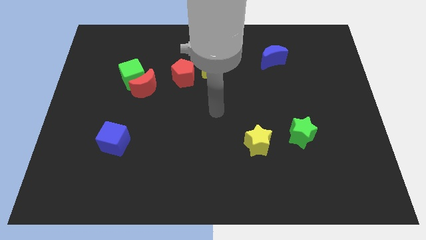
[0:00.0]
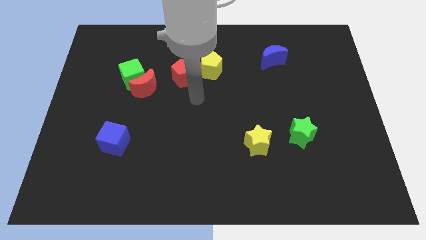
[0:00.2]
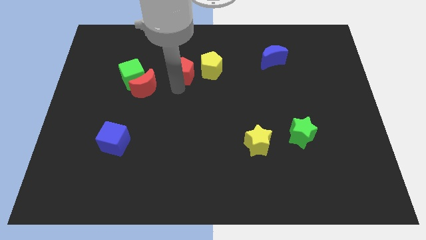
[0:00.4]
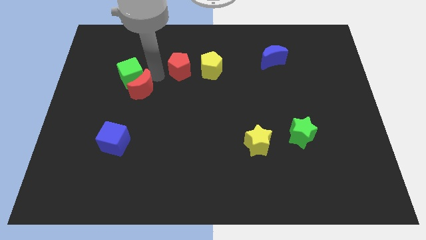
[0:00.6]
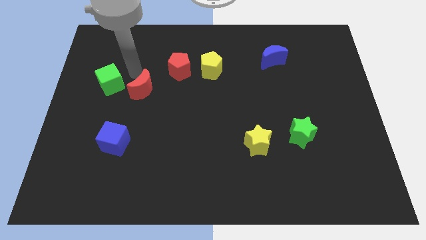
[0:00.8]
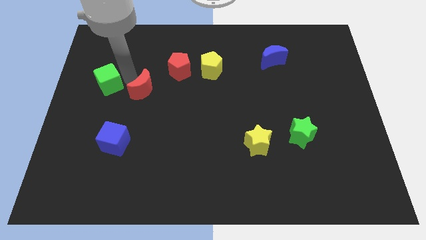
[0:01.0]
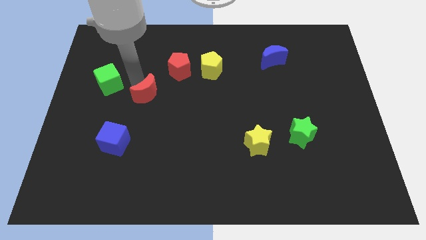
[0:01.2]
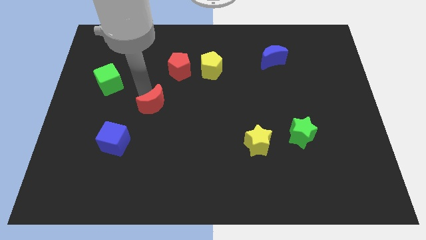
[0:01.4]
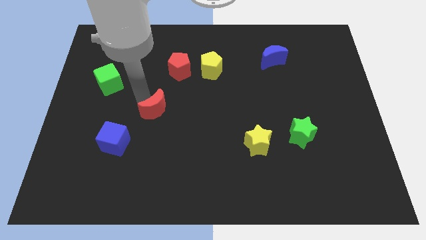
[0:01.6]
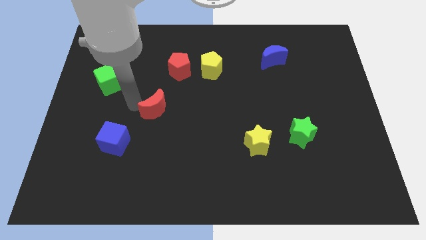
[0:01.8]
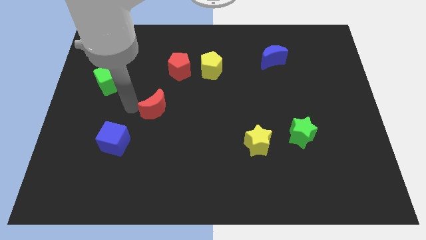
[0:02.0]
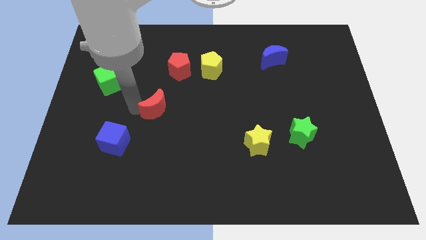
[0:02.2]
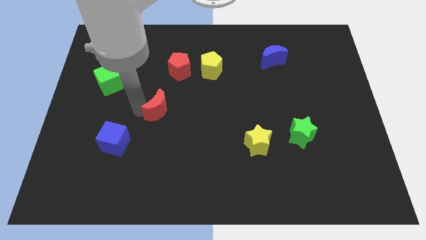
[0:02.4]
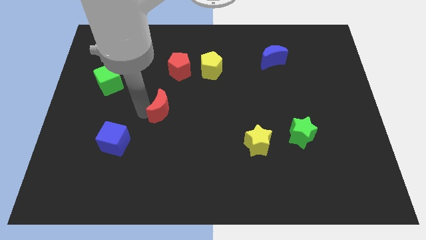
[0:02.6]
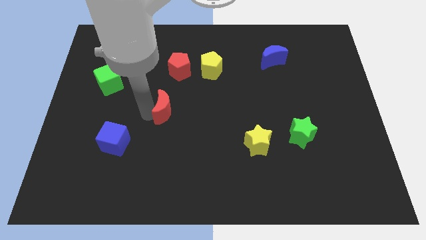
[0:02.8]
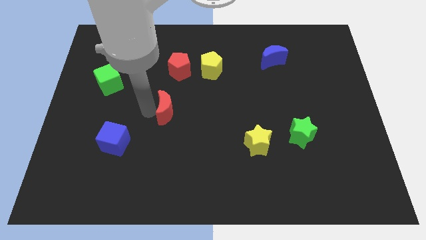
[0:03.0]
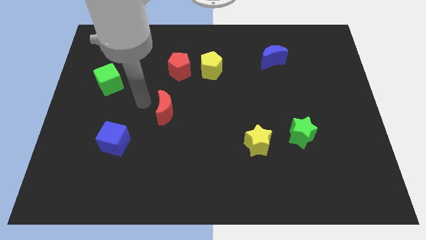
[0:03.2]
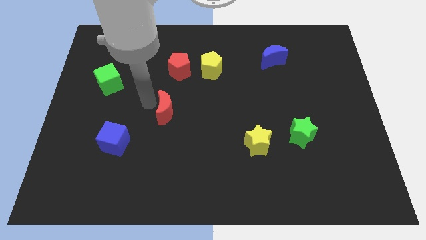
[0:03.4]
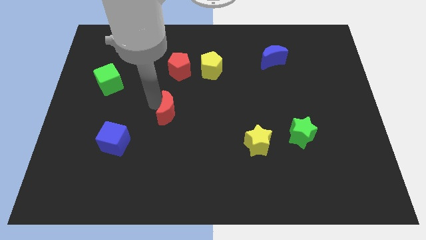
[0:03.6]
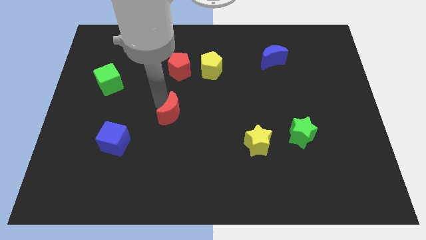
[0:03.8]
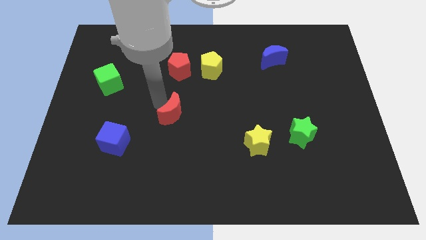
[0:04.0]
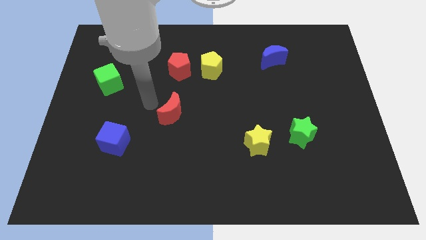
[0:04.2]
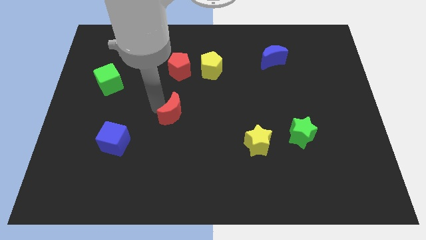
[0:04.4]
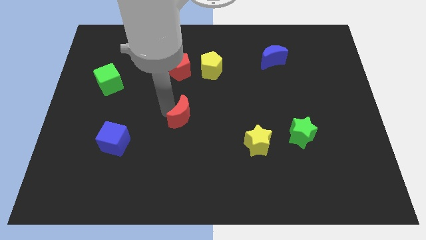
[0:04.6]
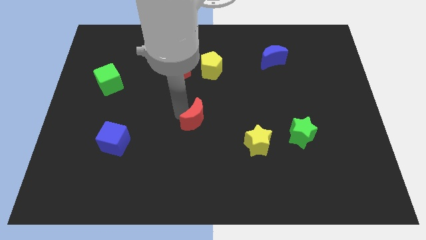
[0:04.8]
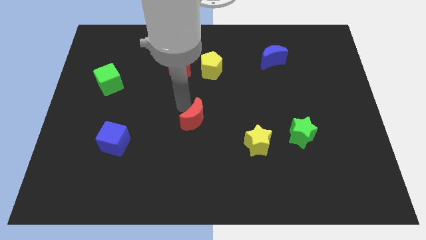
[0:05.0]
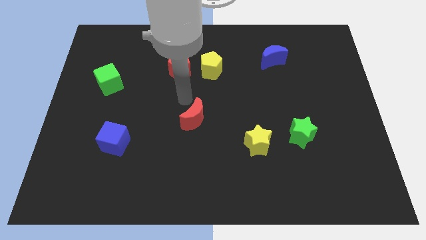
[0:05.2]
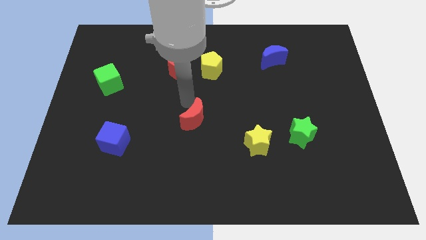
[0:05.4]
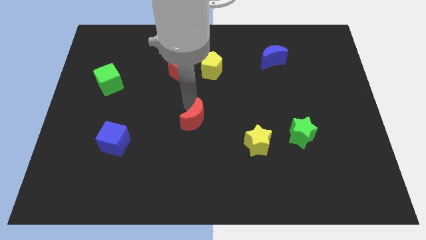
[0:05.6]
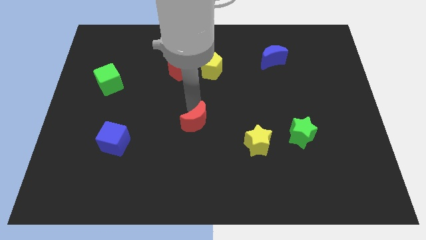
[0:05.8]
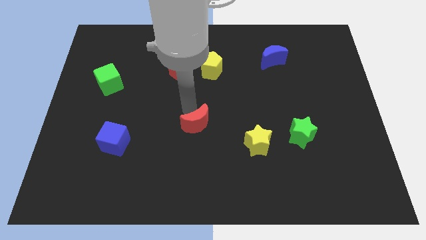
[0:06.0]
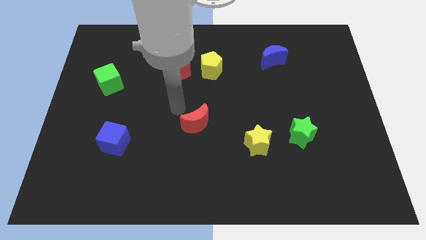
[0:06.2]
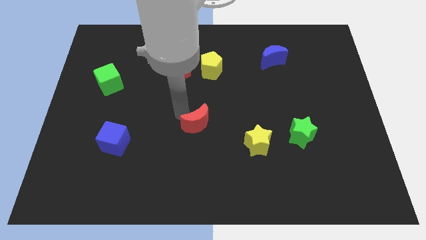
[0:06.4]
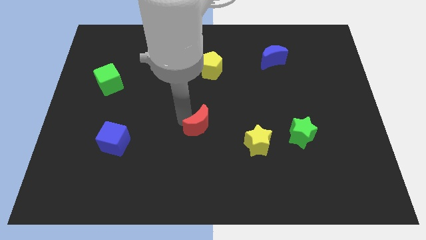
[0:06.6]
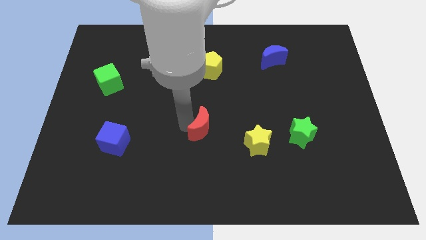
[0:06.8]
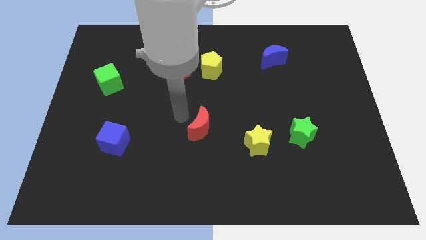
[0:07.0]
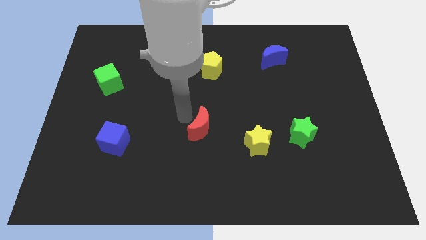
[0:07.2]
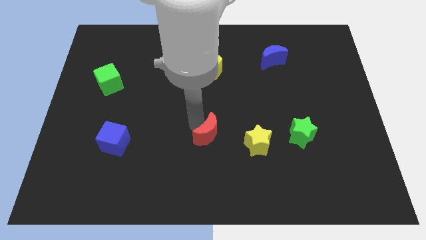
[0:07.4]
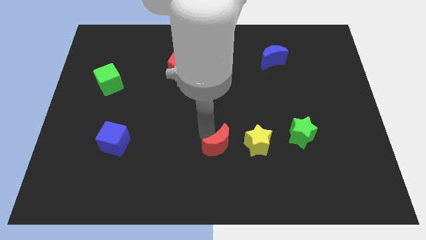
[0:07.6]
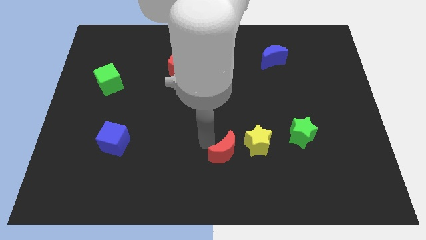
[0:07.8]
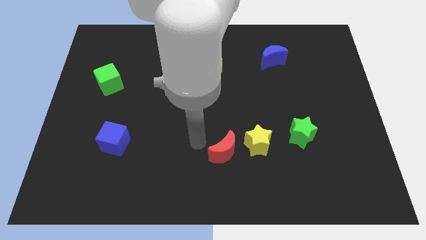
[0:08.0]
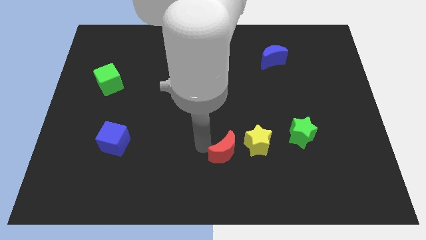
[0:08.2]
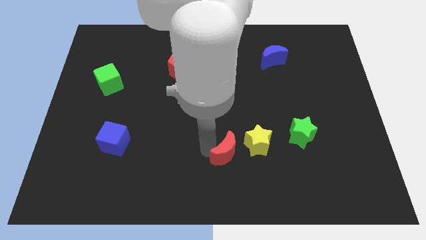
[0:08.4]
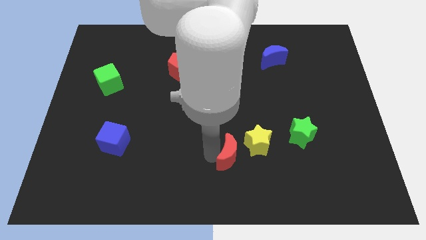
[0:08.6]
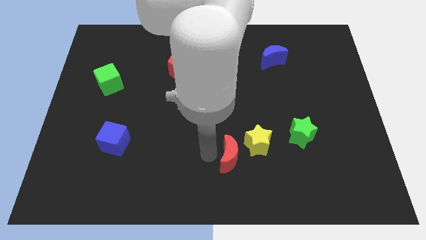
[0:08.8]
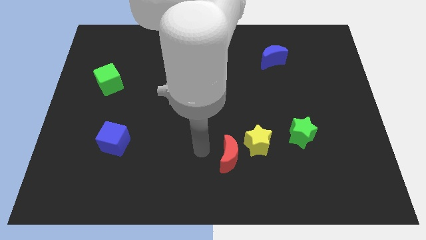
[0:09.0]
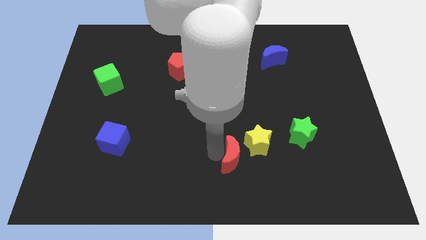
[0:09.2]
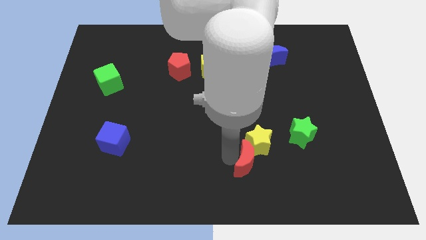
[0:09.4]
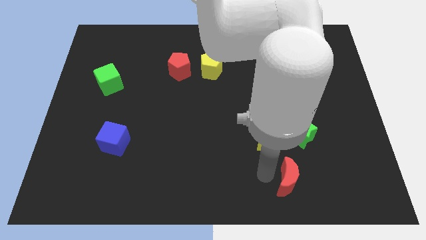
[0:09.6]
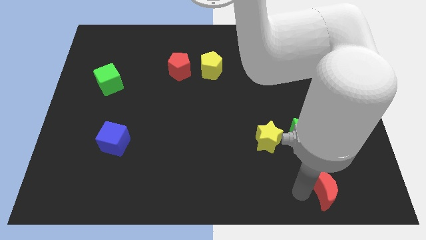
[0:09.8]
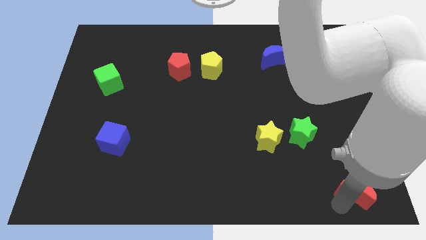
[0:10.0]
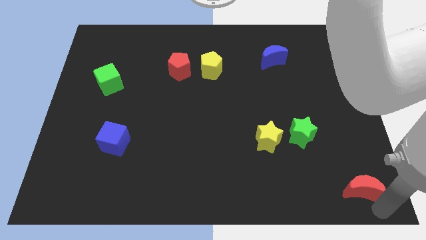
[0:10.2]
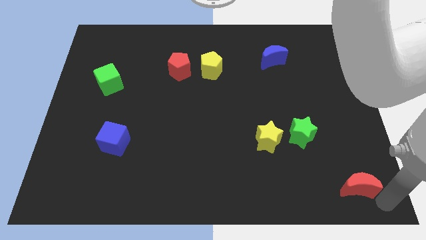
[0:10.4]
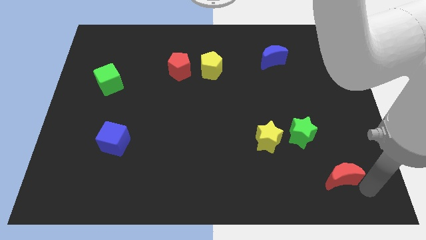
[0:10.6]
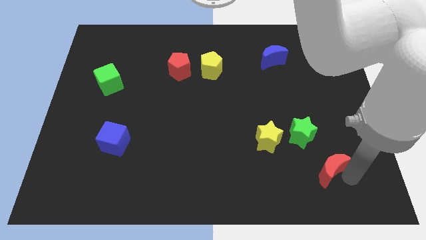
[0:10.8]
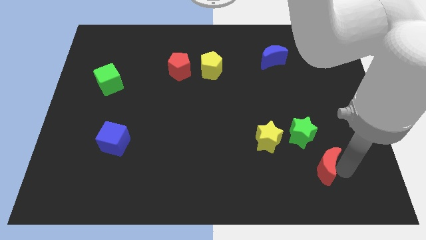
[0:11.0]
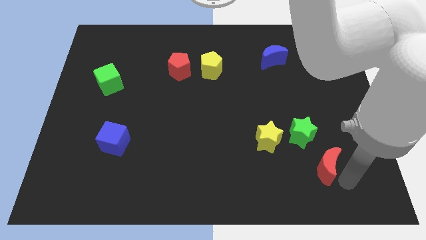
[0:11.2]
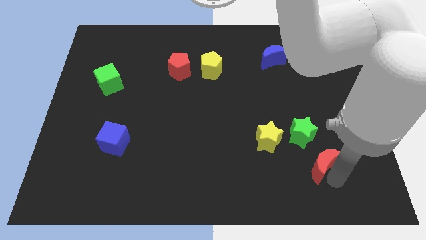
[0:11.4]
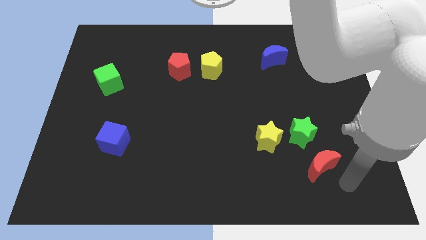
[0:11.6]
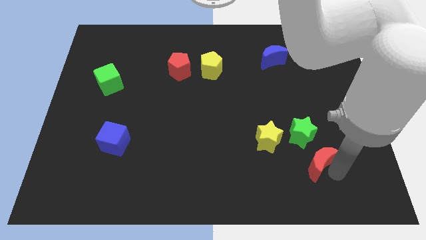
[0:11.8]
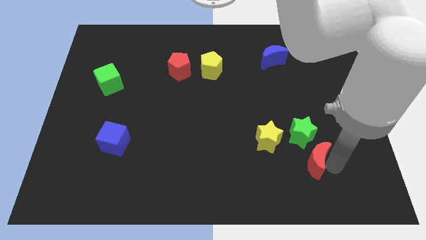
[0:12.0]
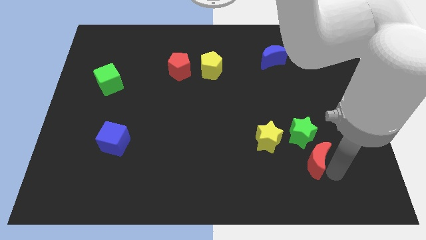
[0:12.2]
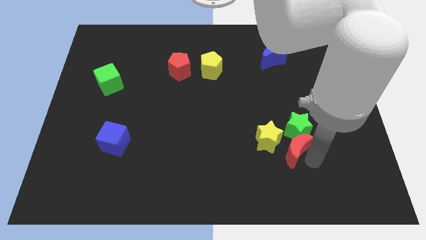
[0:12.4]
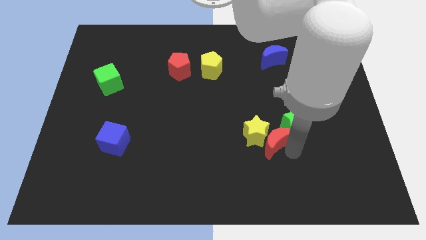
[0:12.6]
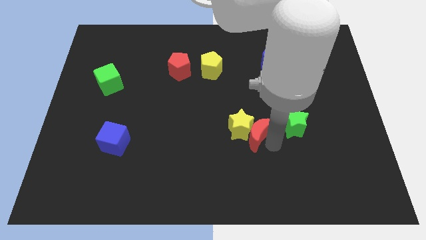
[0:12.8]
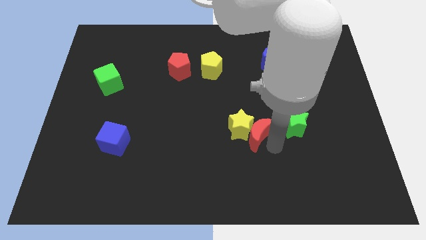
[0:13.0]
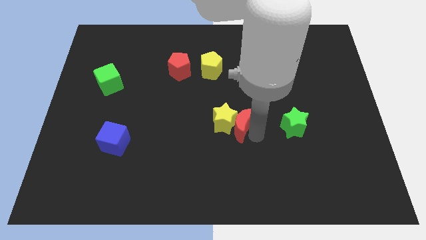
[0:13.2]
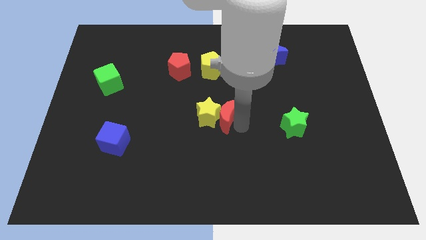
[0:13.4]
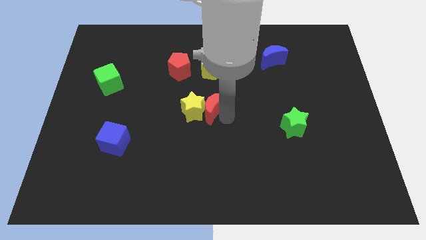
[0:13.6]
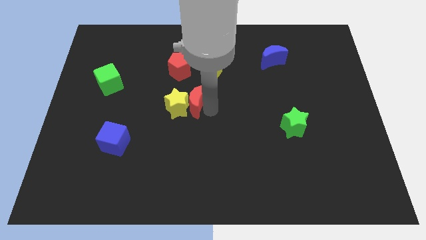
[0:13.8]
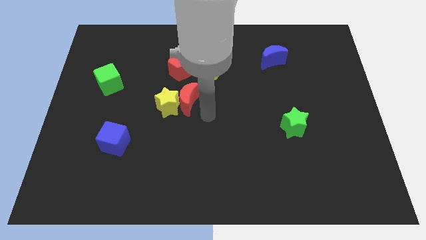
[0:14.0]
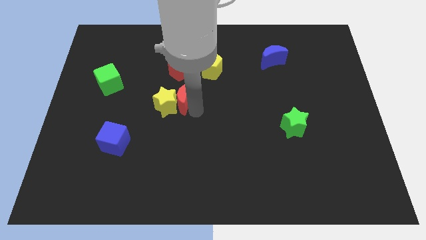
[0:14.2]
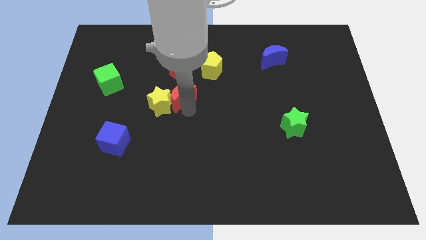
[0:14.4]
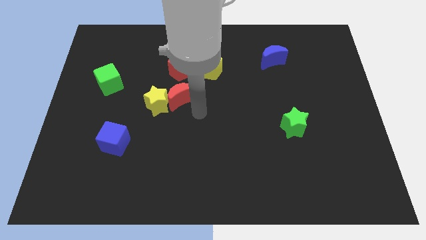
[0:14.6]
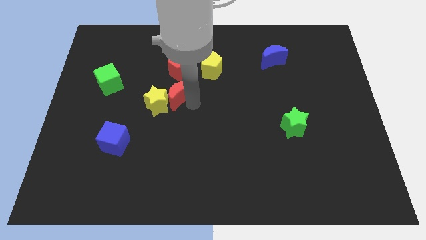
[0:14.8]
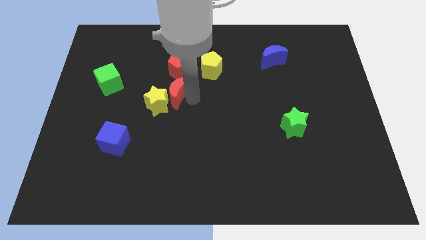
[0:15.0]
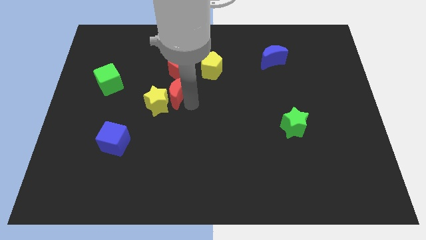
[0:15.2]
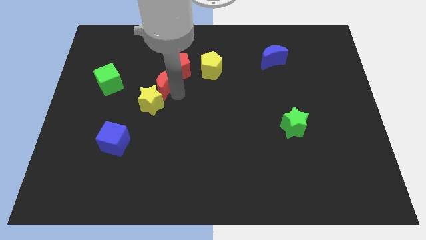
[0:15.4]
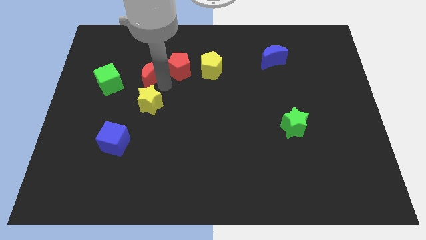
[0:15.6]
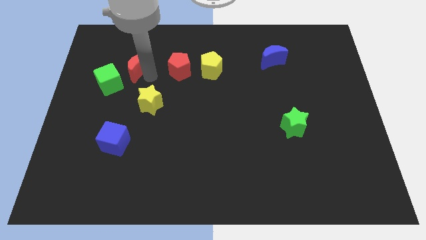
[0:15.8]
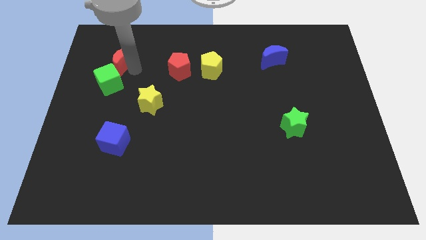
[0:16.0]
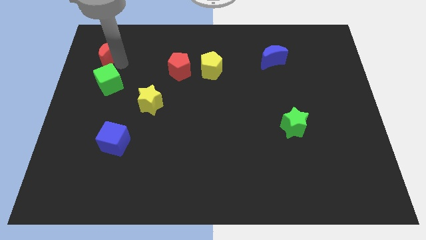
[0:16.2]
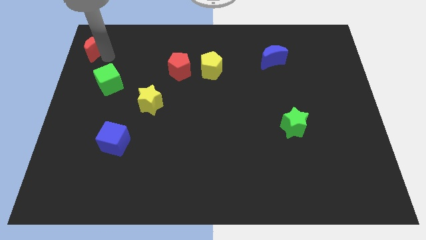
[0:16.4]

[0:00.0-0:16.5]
move the red moon to the top left corner
